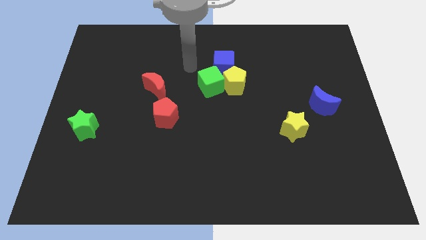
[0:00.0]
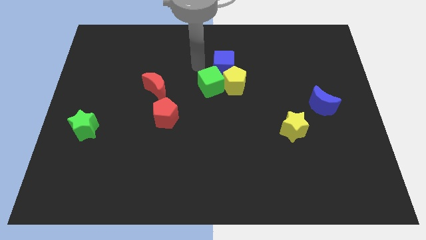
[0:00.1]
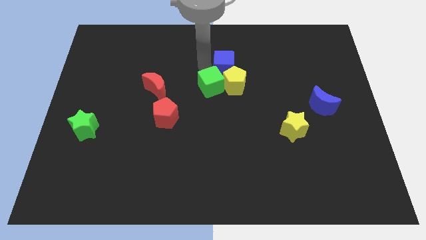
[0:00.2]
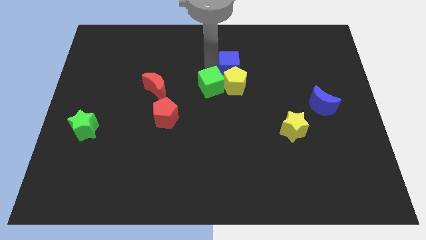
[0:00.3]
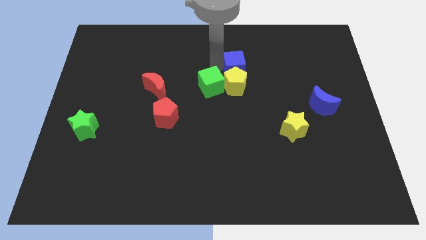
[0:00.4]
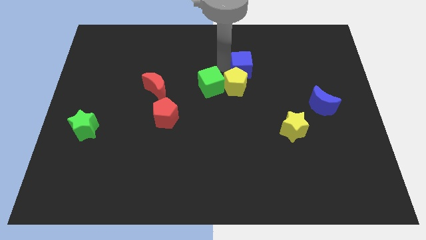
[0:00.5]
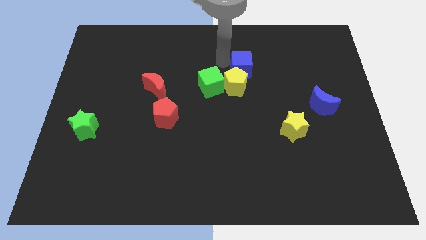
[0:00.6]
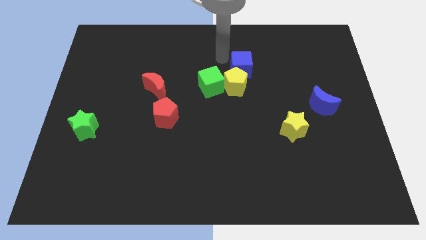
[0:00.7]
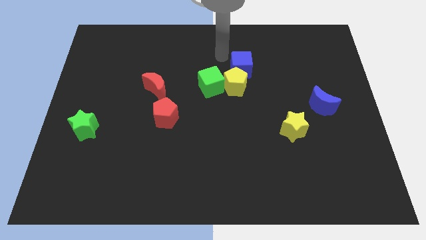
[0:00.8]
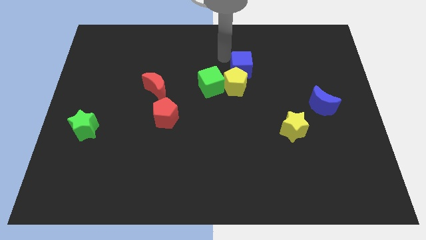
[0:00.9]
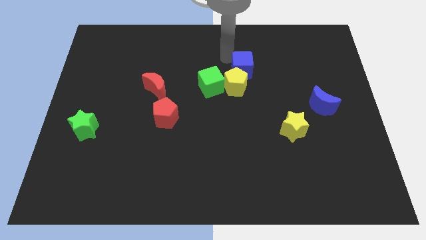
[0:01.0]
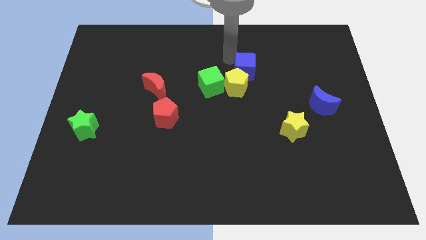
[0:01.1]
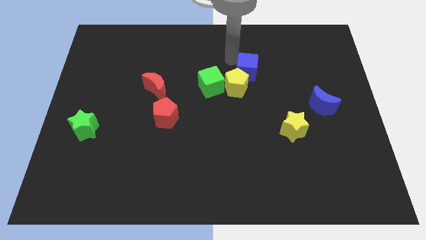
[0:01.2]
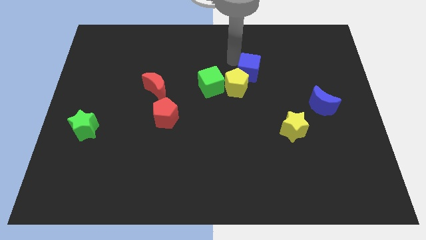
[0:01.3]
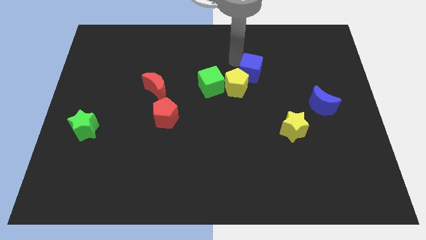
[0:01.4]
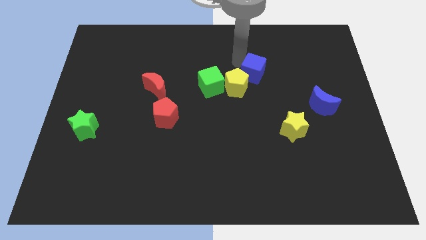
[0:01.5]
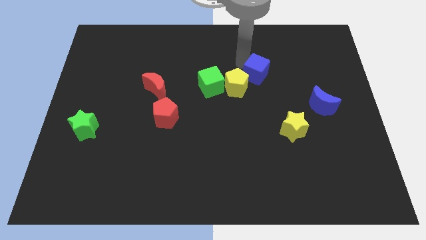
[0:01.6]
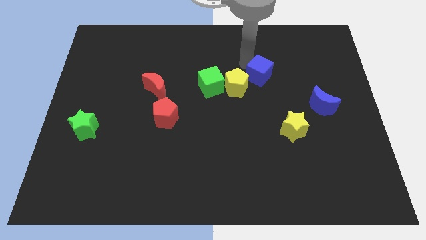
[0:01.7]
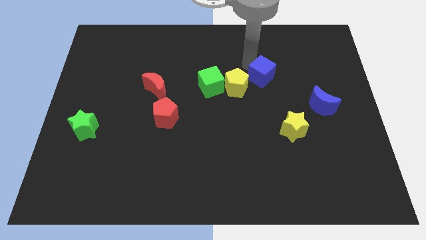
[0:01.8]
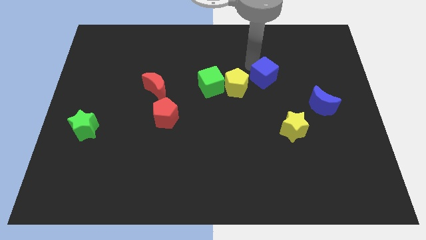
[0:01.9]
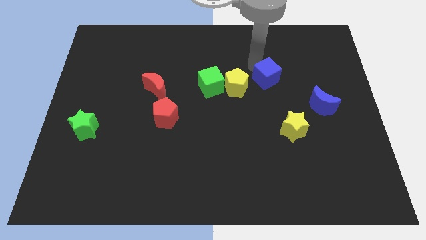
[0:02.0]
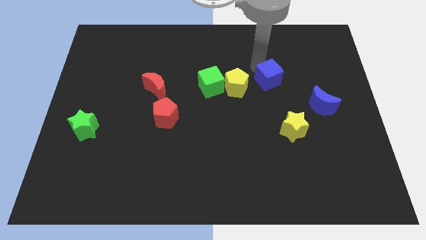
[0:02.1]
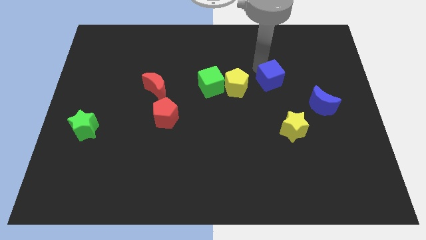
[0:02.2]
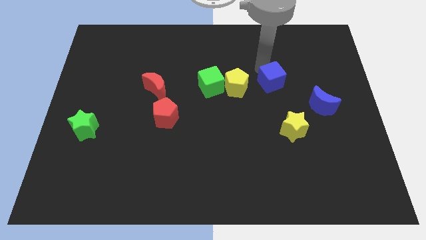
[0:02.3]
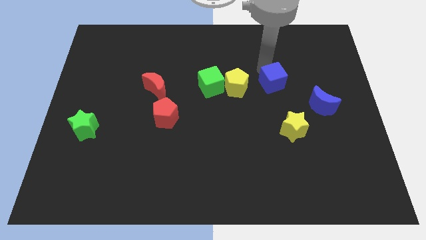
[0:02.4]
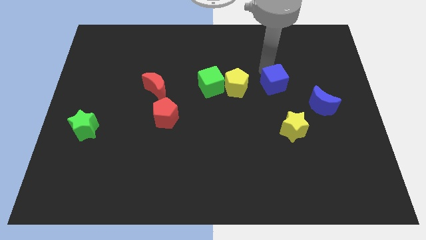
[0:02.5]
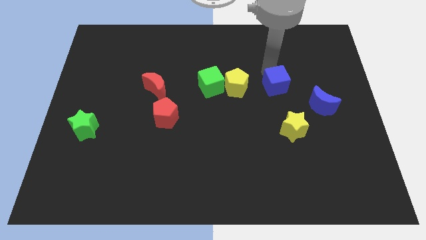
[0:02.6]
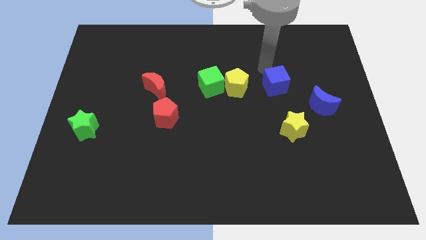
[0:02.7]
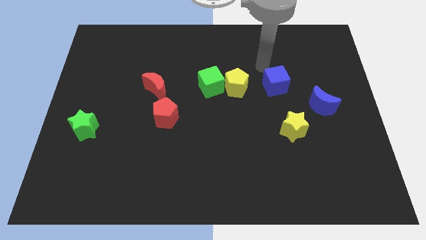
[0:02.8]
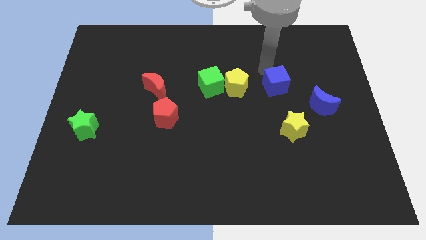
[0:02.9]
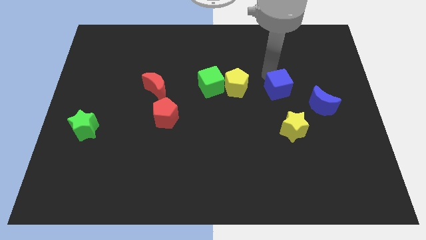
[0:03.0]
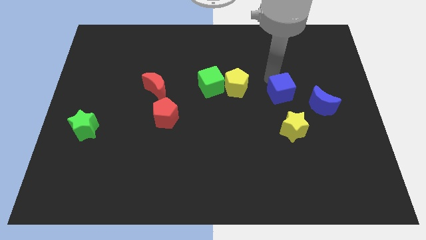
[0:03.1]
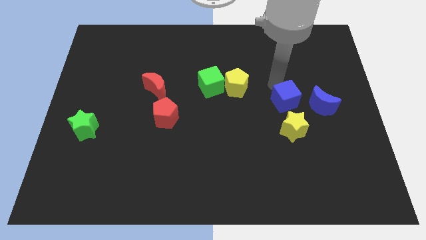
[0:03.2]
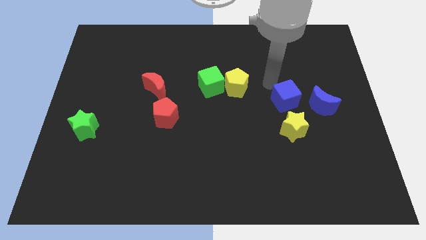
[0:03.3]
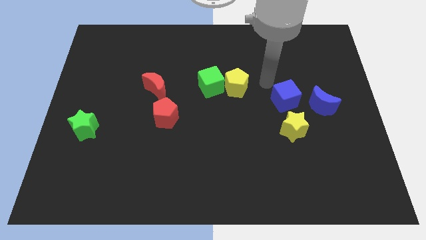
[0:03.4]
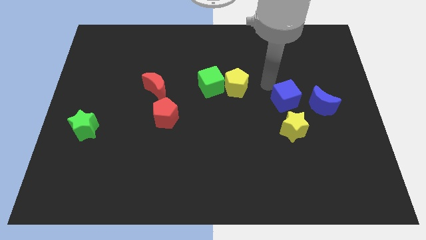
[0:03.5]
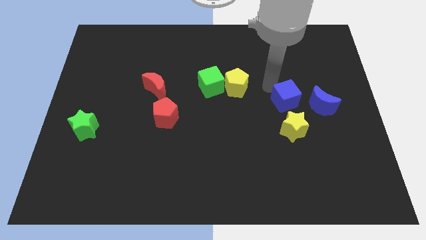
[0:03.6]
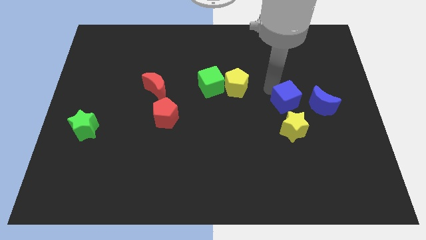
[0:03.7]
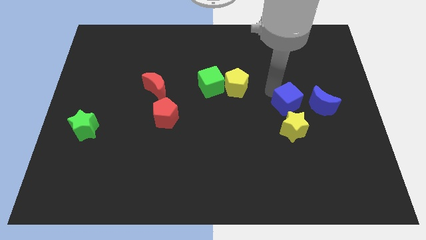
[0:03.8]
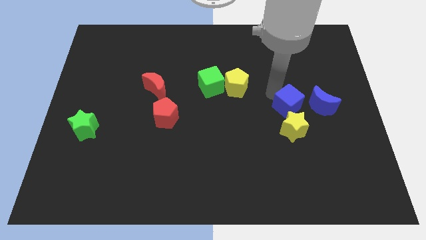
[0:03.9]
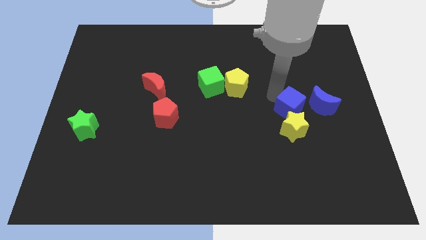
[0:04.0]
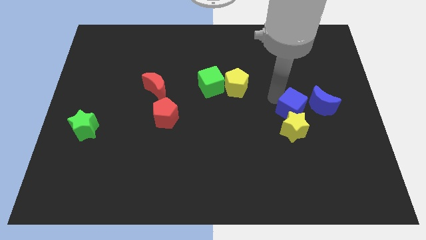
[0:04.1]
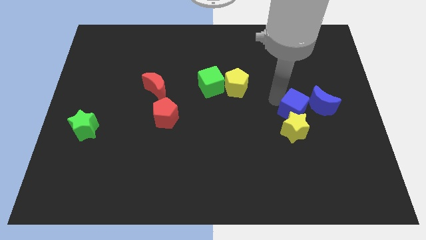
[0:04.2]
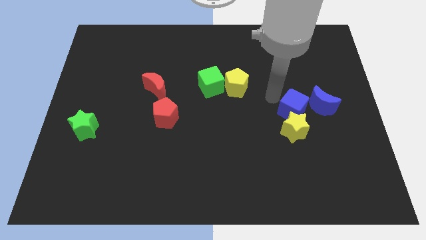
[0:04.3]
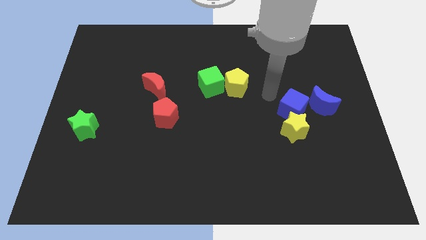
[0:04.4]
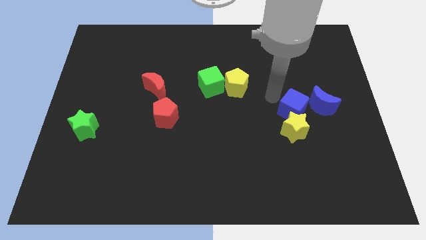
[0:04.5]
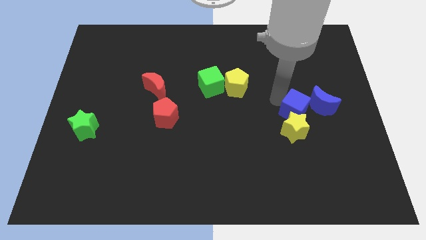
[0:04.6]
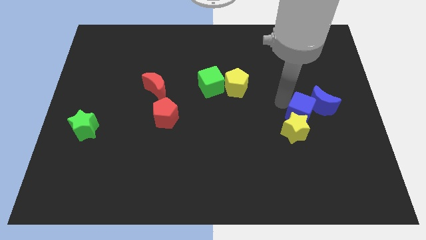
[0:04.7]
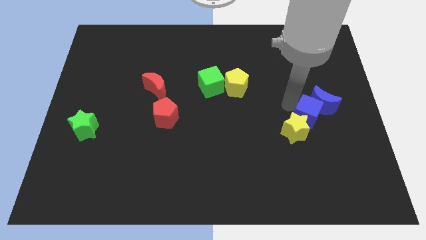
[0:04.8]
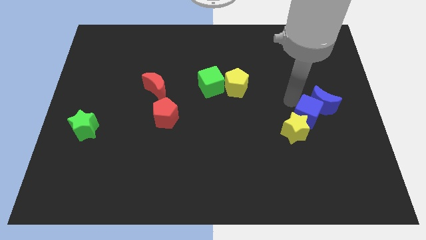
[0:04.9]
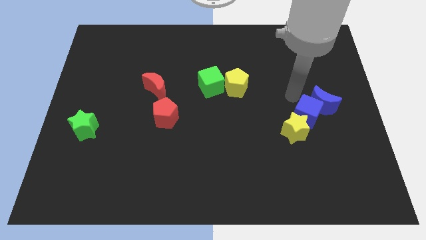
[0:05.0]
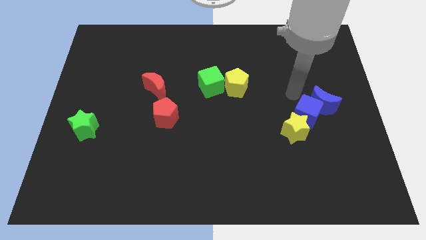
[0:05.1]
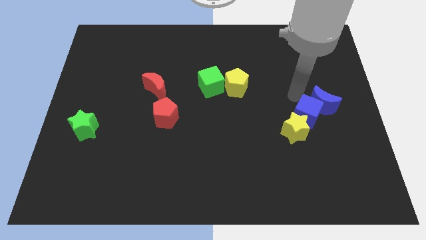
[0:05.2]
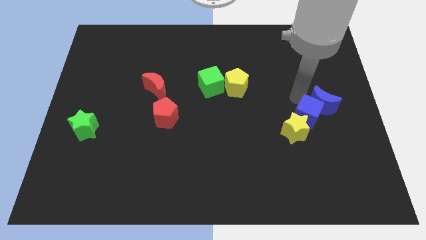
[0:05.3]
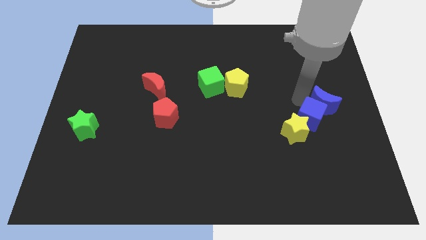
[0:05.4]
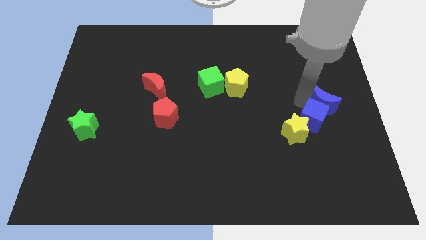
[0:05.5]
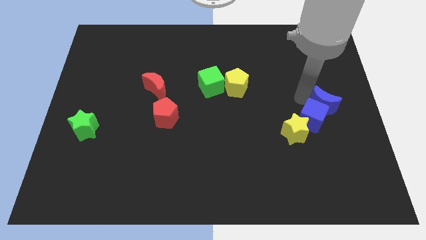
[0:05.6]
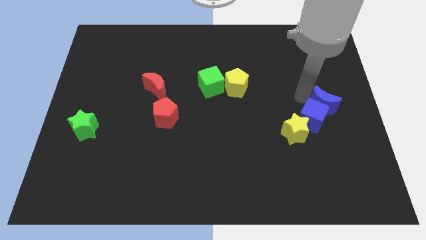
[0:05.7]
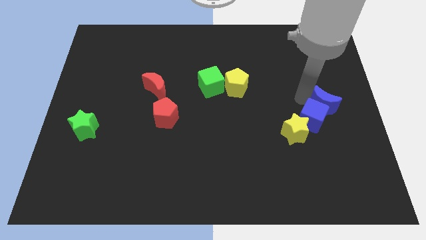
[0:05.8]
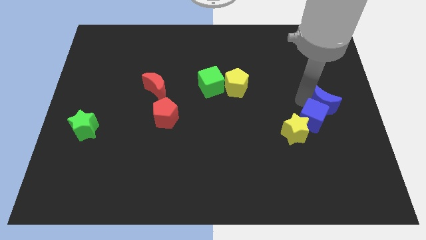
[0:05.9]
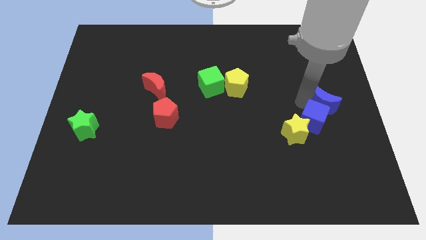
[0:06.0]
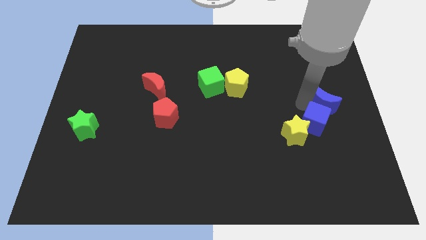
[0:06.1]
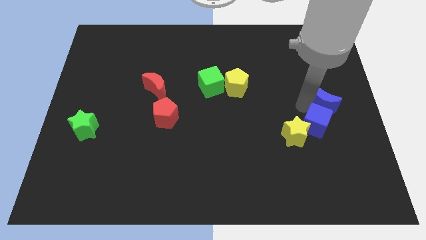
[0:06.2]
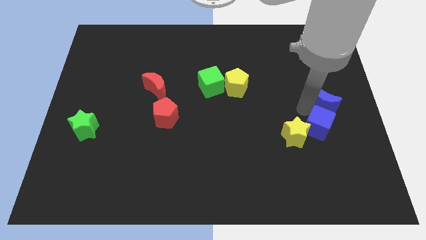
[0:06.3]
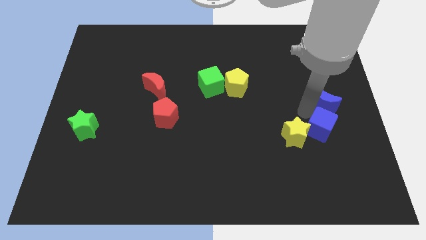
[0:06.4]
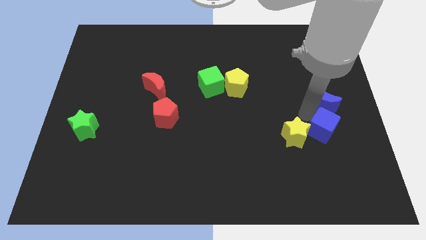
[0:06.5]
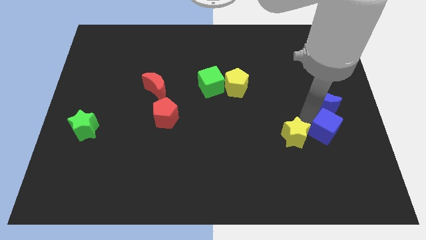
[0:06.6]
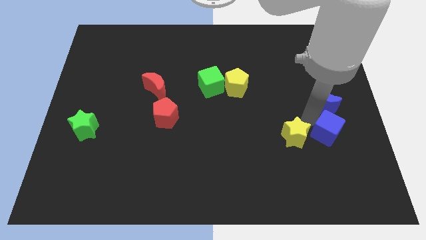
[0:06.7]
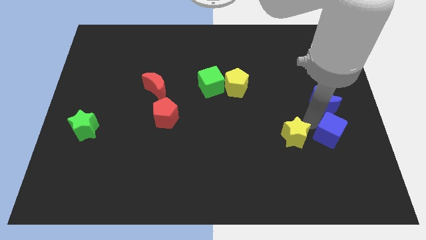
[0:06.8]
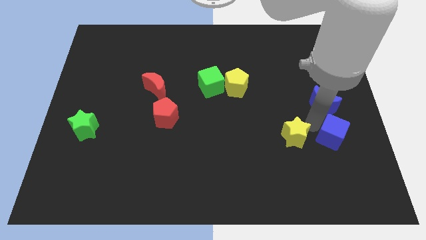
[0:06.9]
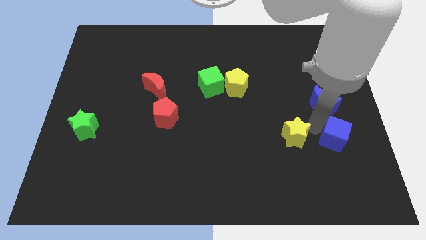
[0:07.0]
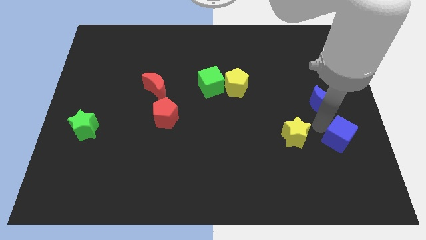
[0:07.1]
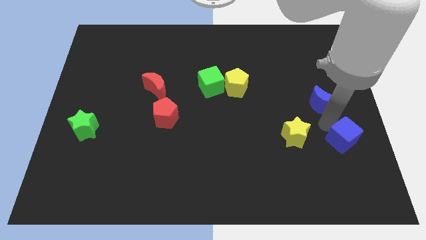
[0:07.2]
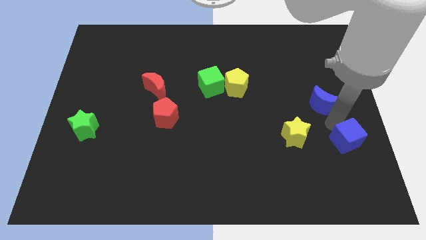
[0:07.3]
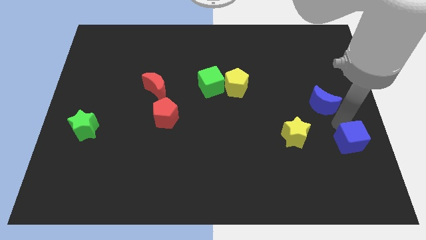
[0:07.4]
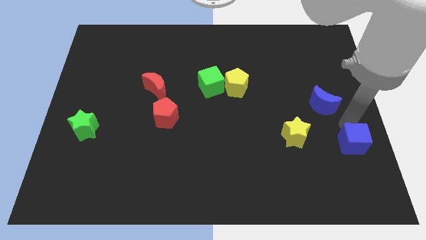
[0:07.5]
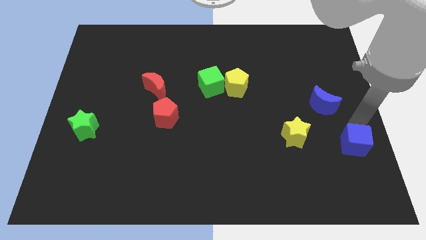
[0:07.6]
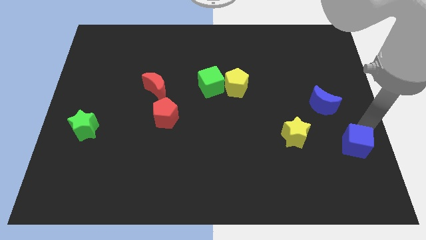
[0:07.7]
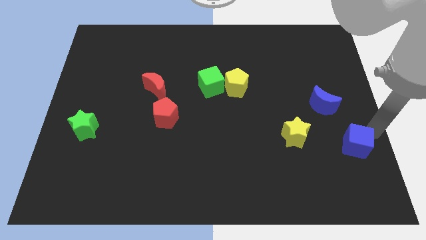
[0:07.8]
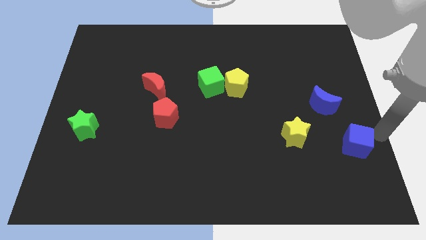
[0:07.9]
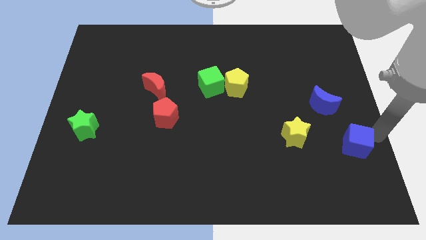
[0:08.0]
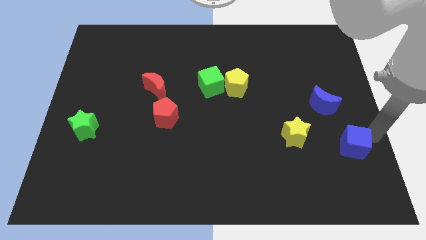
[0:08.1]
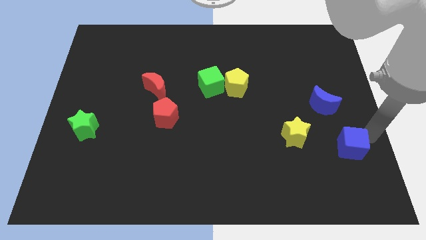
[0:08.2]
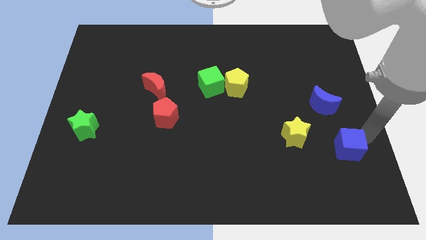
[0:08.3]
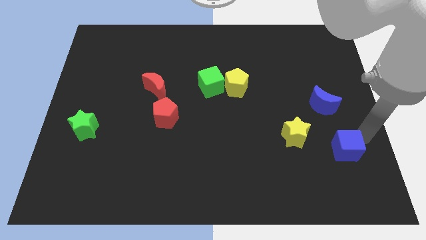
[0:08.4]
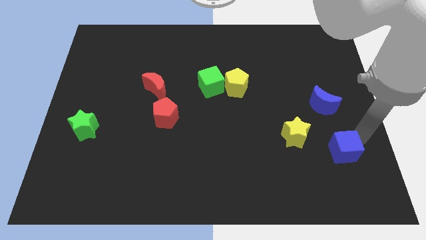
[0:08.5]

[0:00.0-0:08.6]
put the blue cube diagonally down and to the right of the yellow star

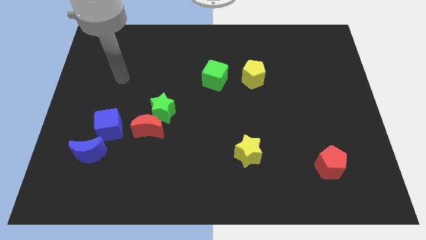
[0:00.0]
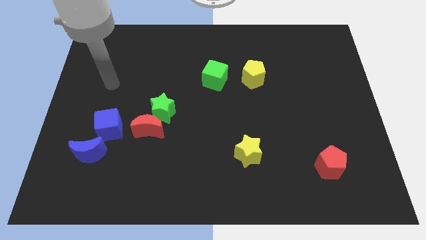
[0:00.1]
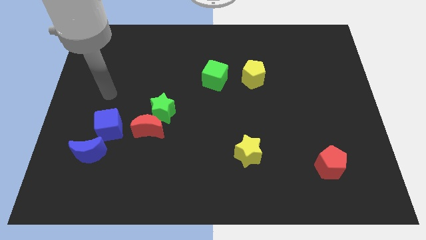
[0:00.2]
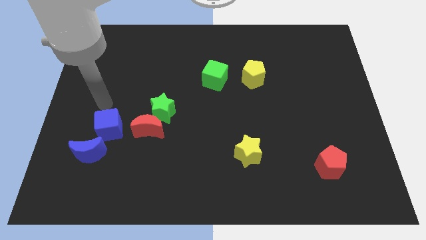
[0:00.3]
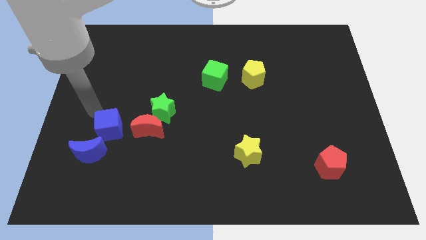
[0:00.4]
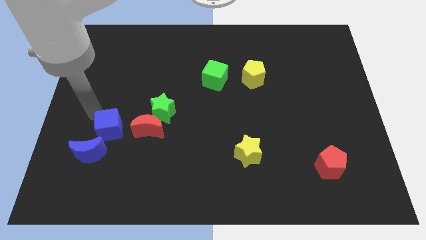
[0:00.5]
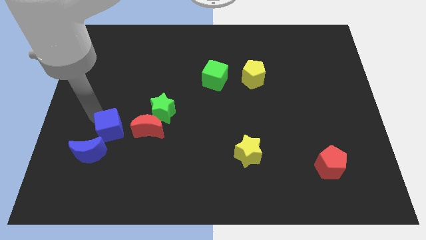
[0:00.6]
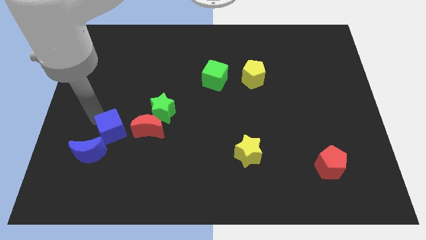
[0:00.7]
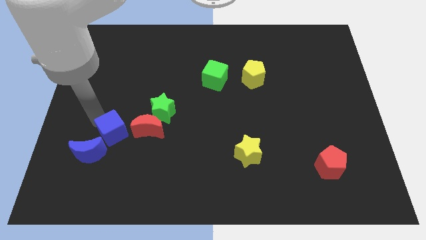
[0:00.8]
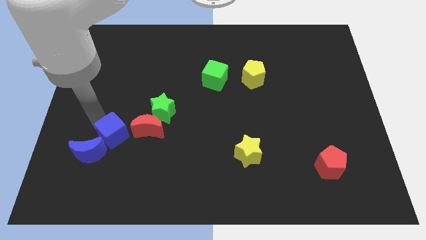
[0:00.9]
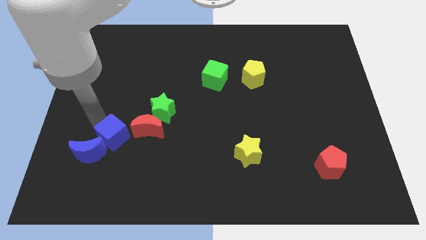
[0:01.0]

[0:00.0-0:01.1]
push the blue cube to the right side of the blue moon
